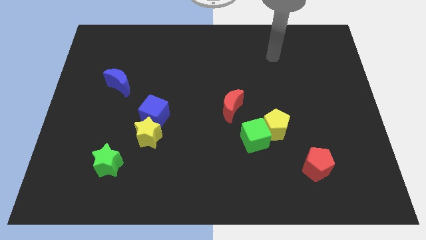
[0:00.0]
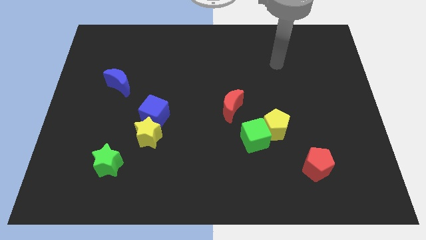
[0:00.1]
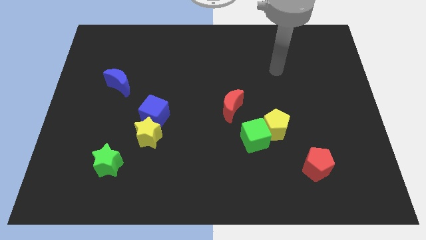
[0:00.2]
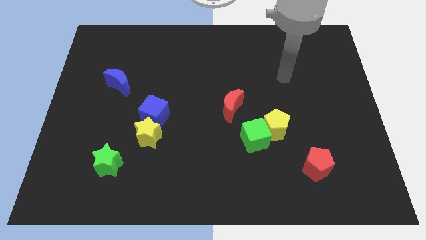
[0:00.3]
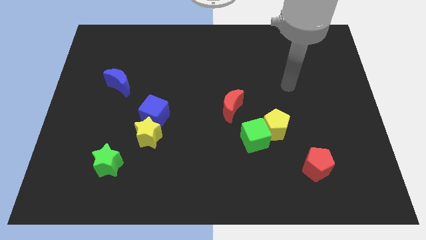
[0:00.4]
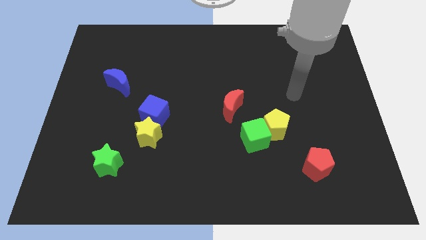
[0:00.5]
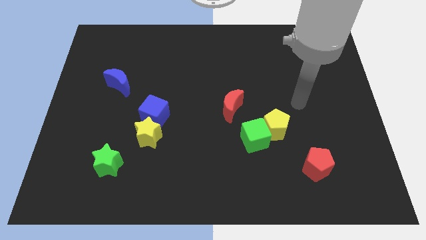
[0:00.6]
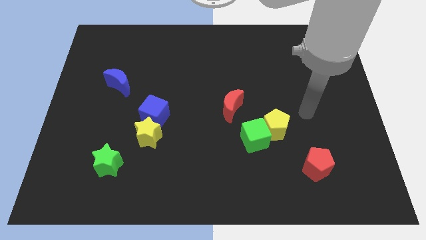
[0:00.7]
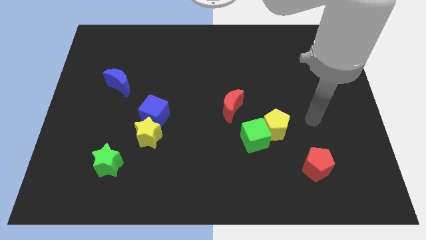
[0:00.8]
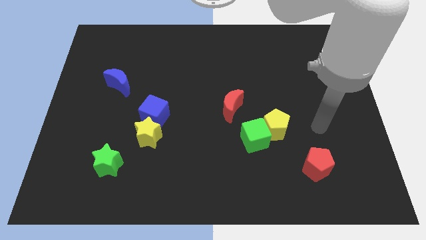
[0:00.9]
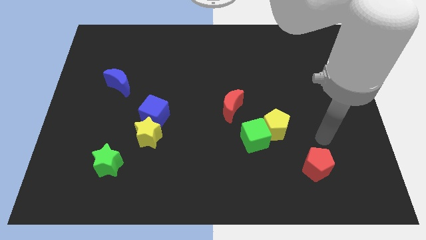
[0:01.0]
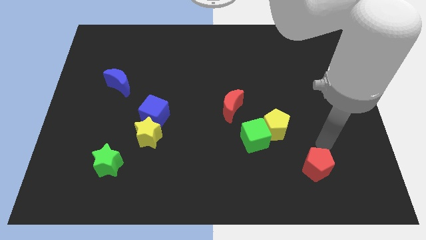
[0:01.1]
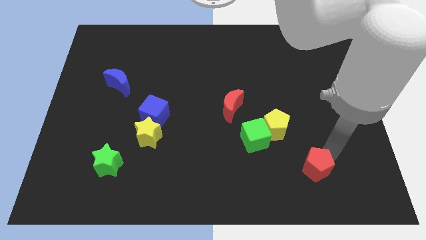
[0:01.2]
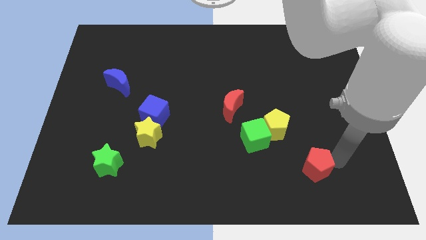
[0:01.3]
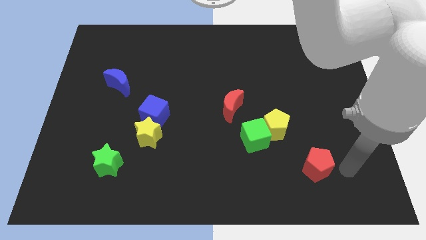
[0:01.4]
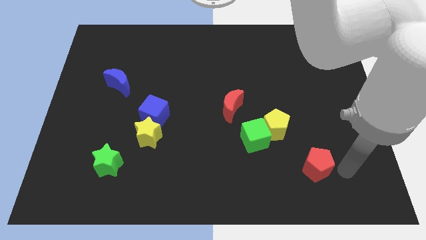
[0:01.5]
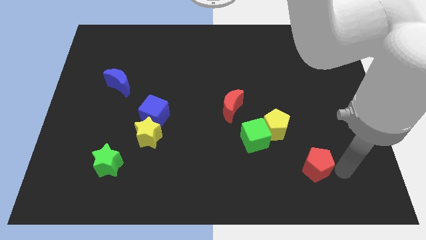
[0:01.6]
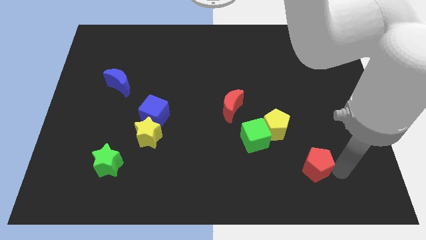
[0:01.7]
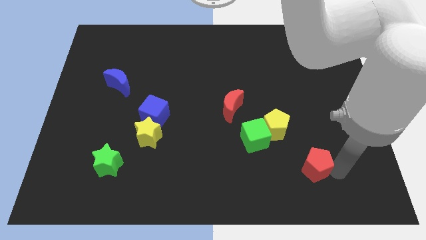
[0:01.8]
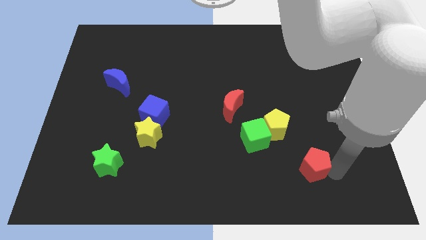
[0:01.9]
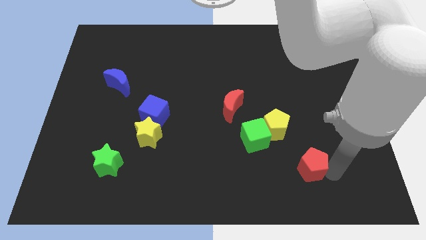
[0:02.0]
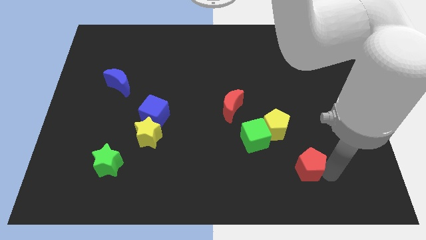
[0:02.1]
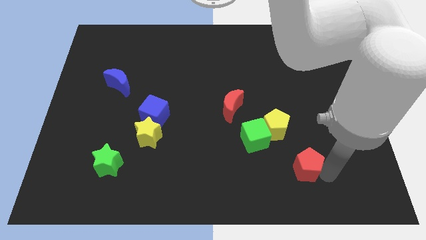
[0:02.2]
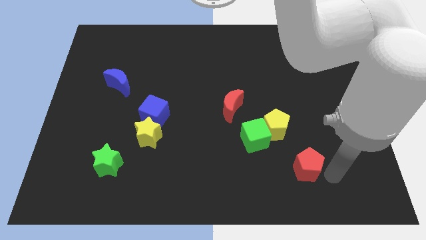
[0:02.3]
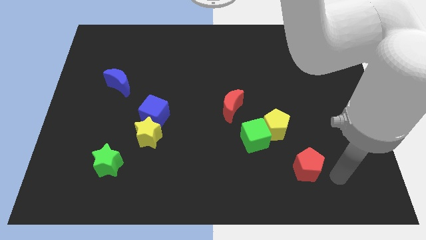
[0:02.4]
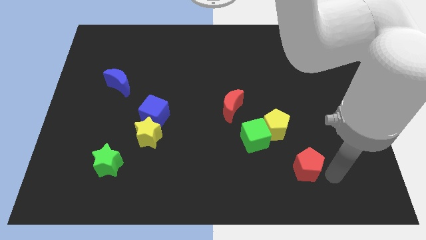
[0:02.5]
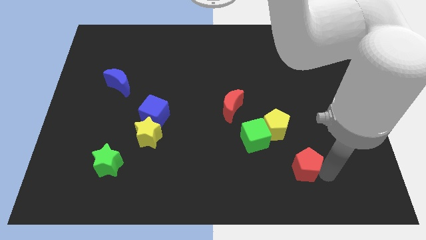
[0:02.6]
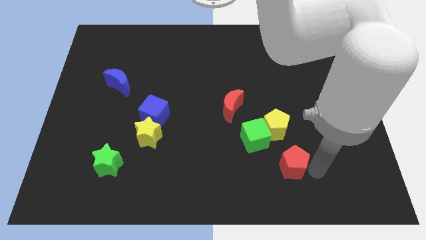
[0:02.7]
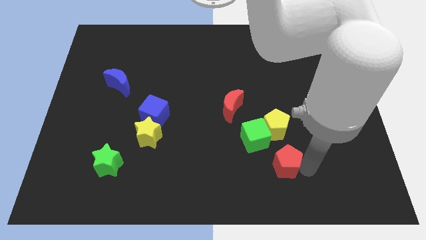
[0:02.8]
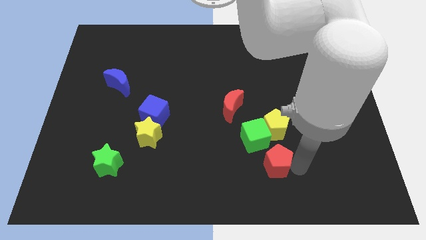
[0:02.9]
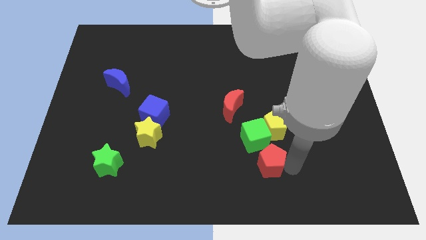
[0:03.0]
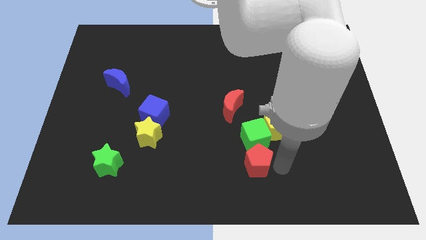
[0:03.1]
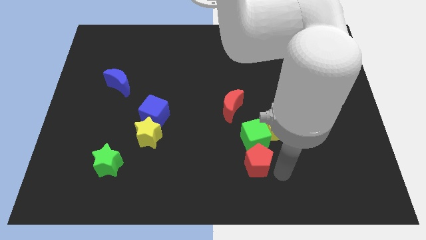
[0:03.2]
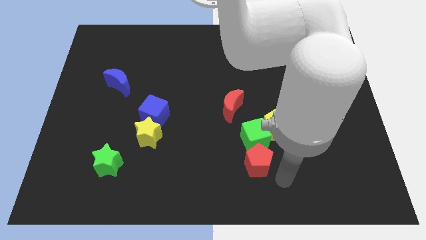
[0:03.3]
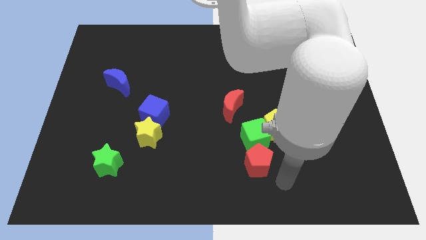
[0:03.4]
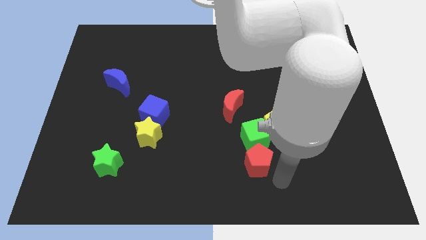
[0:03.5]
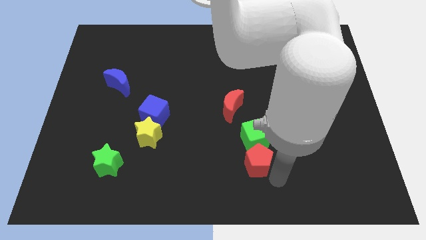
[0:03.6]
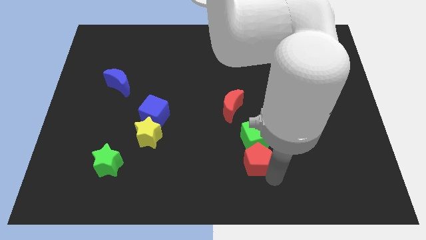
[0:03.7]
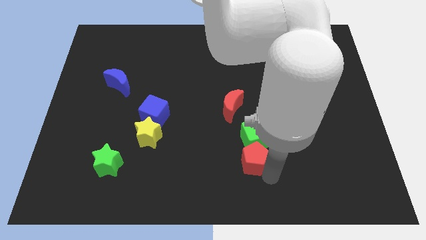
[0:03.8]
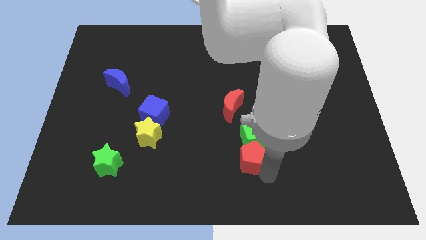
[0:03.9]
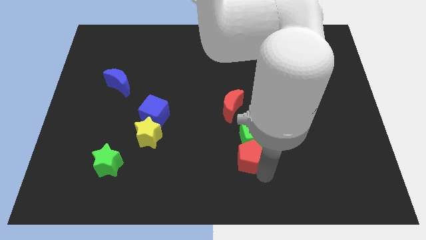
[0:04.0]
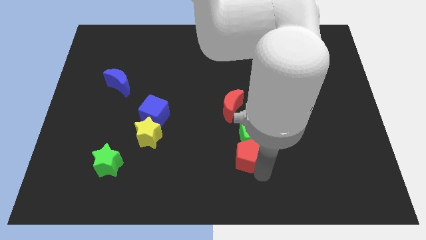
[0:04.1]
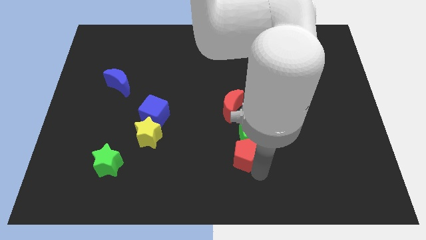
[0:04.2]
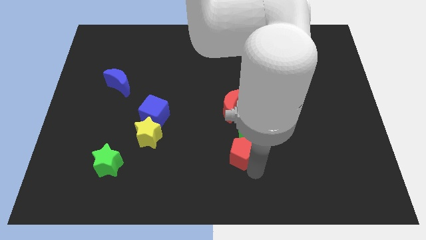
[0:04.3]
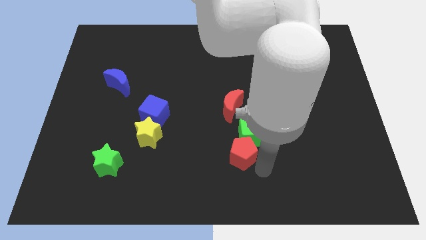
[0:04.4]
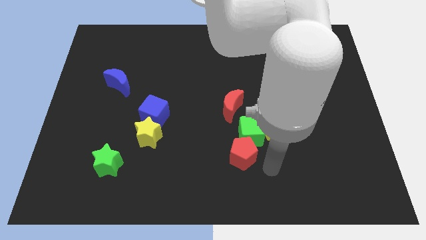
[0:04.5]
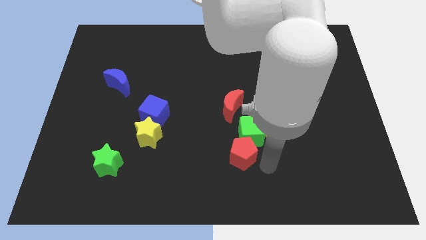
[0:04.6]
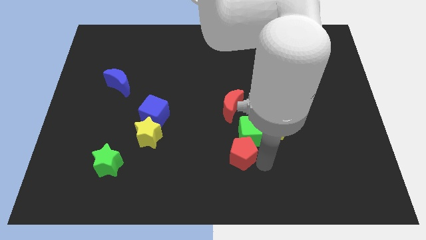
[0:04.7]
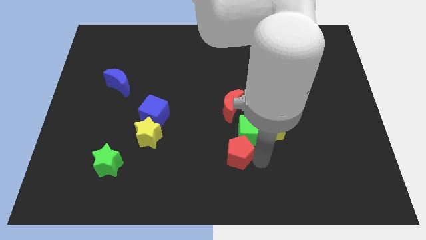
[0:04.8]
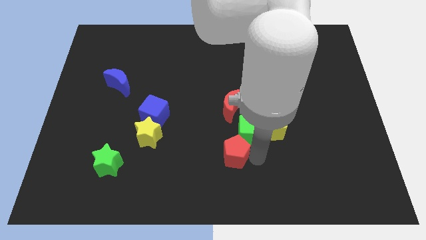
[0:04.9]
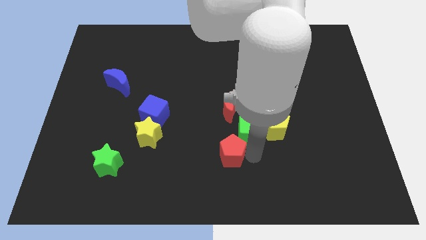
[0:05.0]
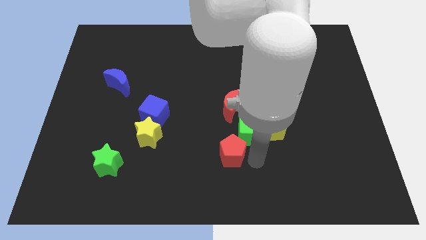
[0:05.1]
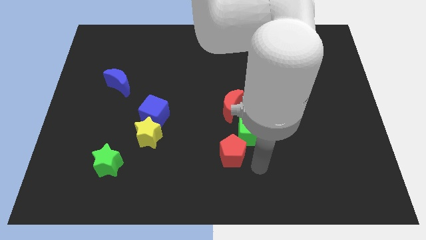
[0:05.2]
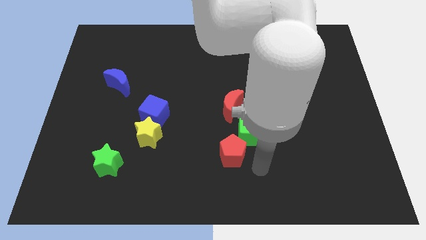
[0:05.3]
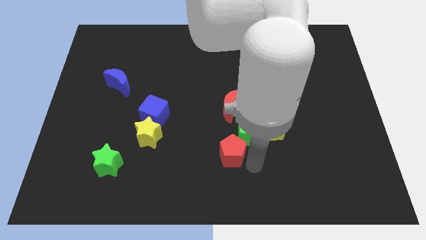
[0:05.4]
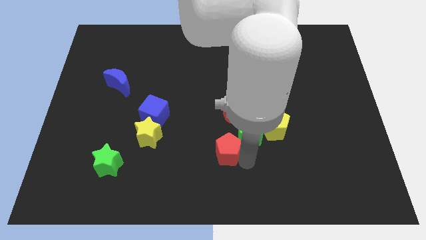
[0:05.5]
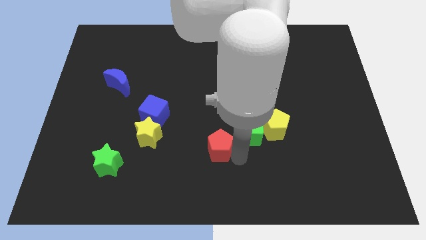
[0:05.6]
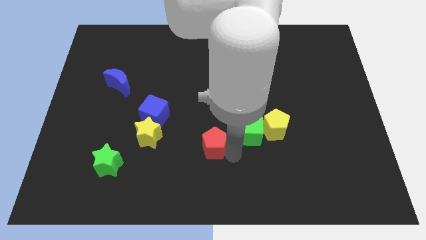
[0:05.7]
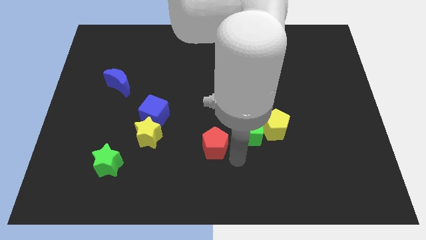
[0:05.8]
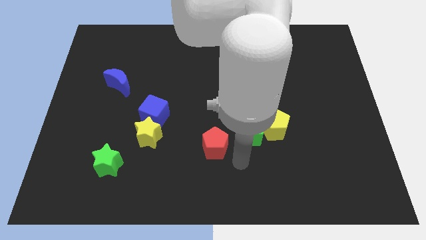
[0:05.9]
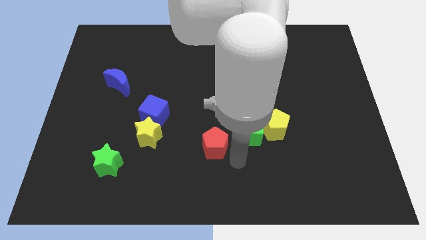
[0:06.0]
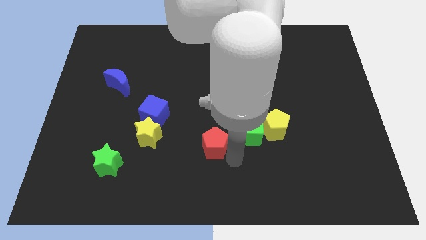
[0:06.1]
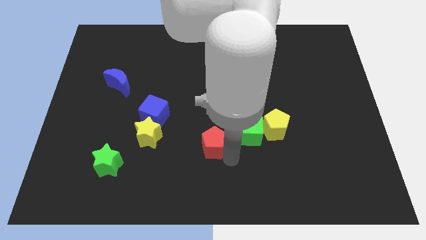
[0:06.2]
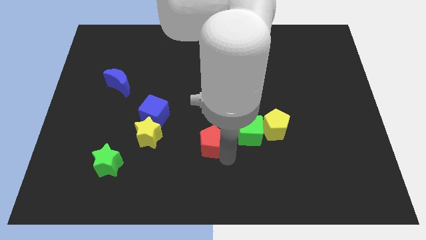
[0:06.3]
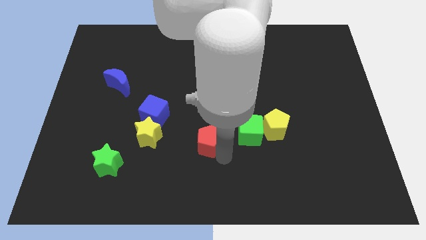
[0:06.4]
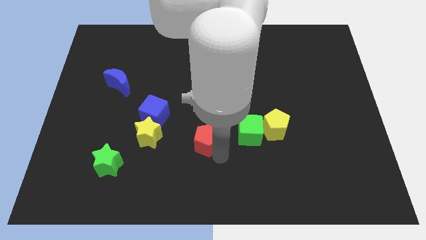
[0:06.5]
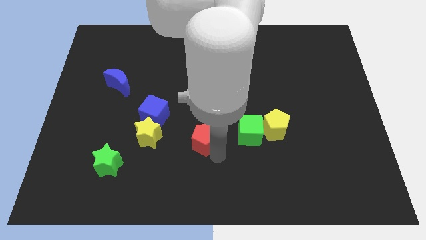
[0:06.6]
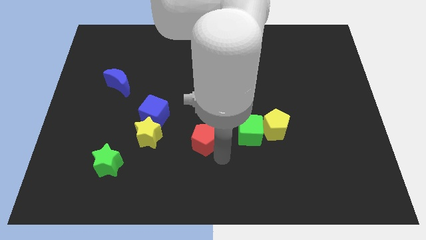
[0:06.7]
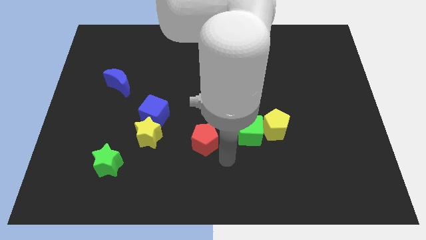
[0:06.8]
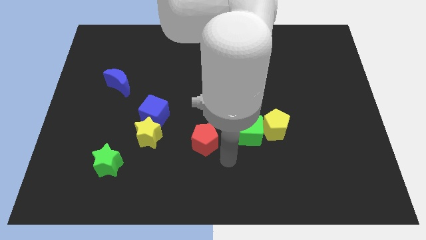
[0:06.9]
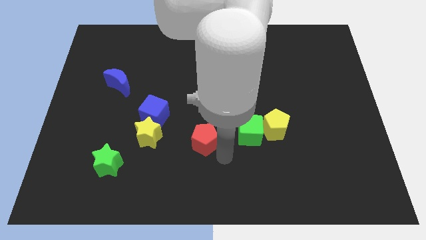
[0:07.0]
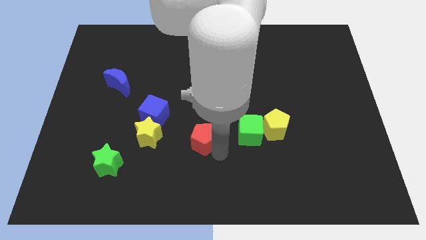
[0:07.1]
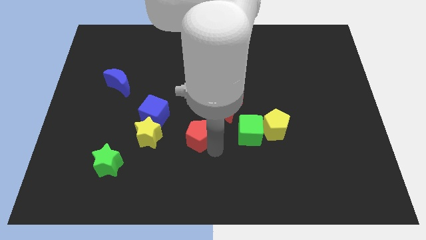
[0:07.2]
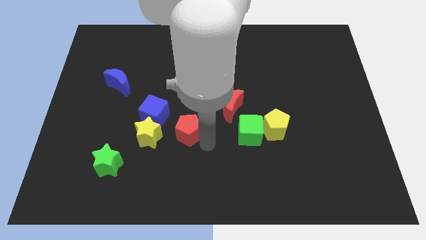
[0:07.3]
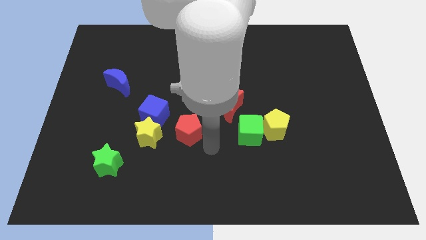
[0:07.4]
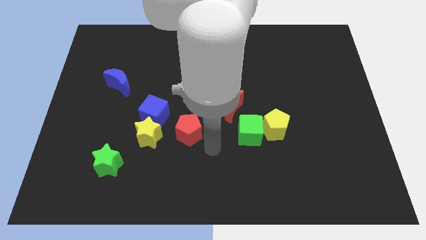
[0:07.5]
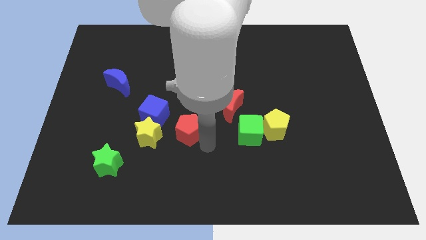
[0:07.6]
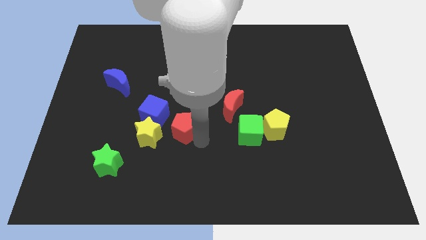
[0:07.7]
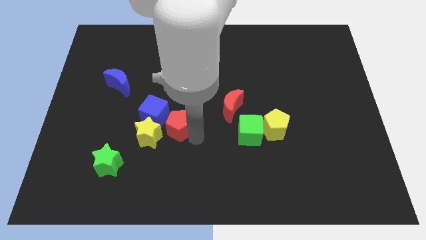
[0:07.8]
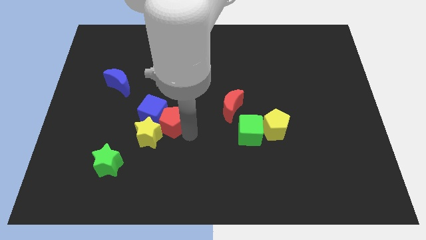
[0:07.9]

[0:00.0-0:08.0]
push the red pentagon towards the blue cube
